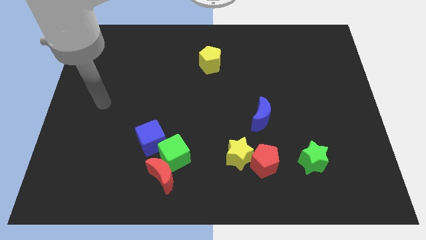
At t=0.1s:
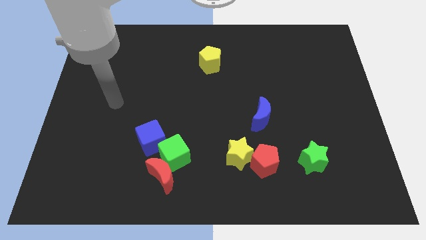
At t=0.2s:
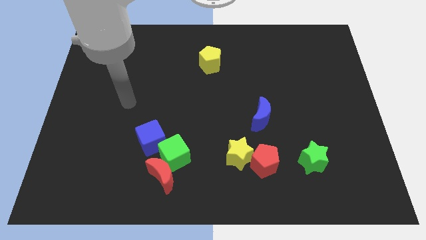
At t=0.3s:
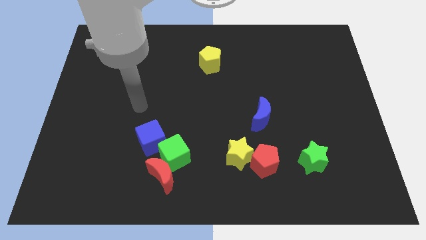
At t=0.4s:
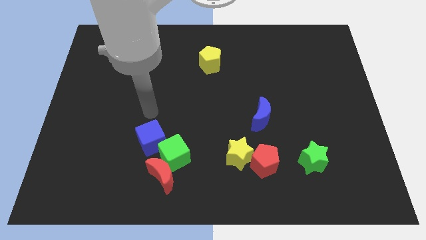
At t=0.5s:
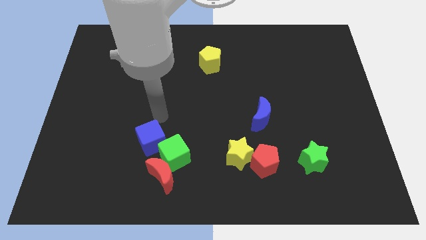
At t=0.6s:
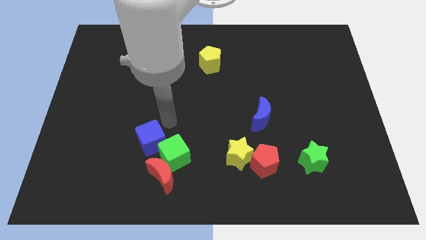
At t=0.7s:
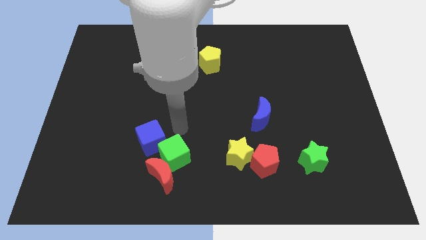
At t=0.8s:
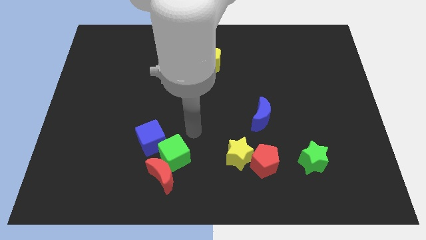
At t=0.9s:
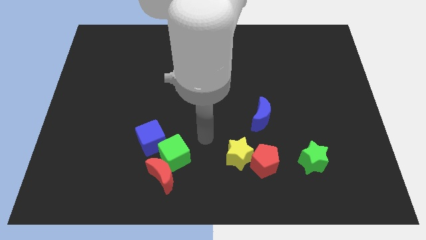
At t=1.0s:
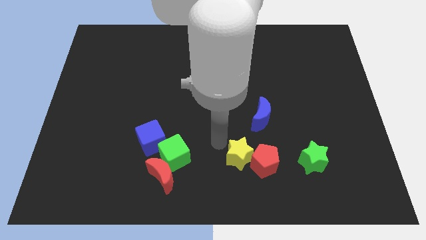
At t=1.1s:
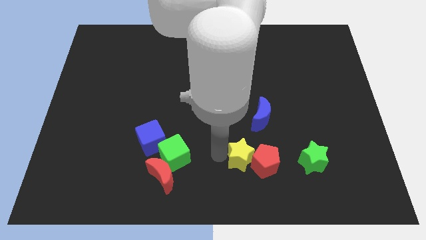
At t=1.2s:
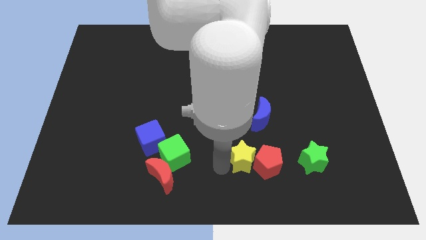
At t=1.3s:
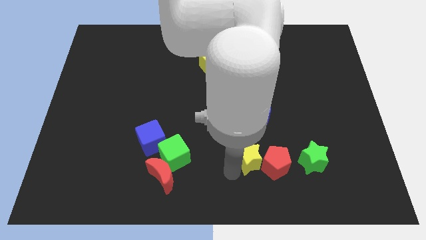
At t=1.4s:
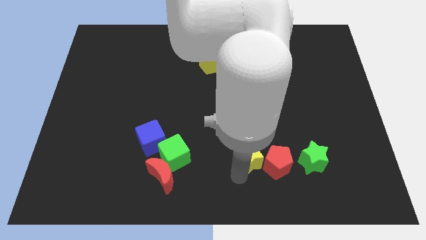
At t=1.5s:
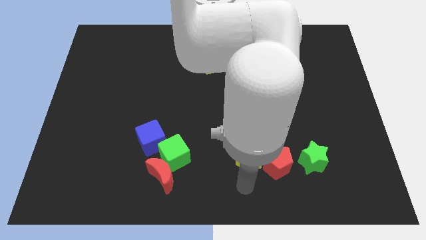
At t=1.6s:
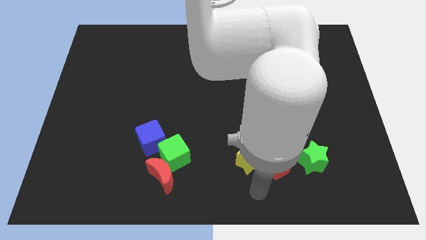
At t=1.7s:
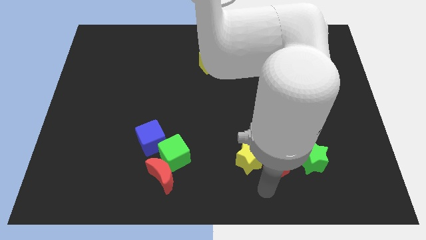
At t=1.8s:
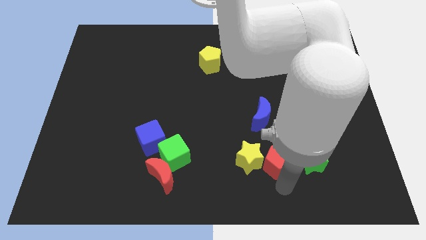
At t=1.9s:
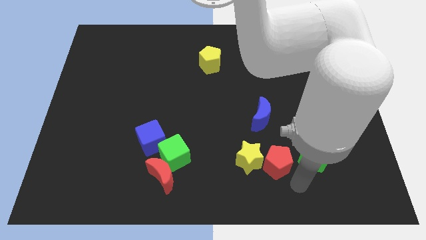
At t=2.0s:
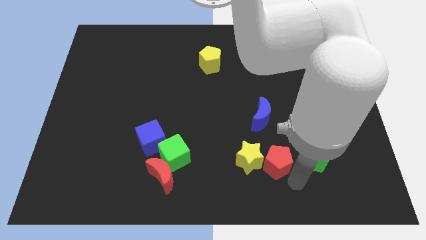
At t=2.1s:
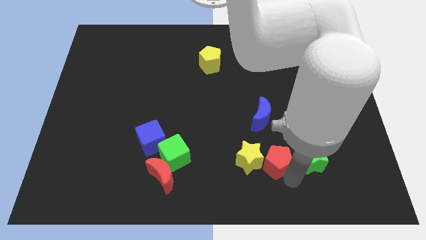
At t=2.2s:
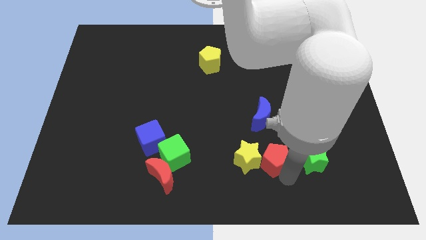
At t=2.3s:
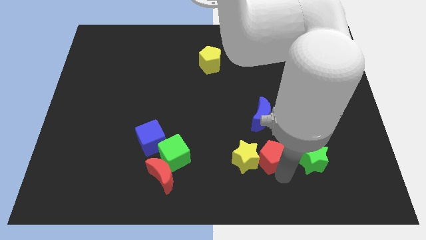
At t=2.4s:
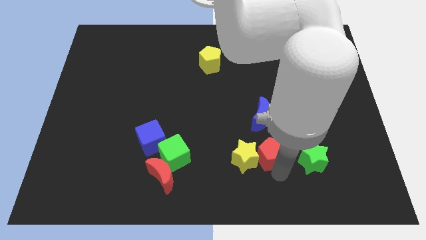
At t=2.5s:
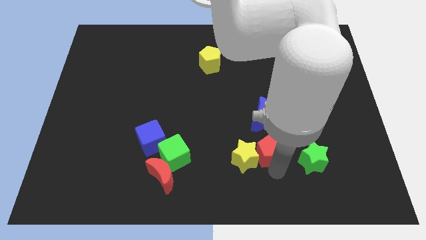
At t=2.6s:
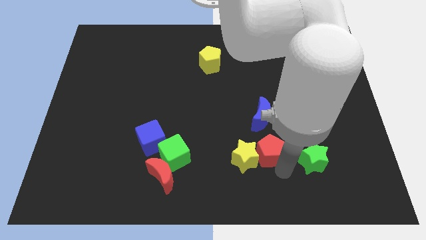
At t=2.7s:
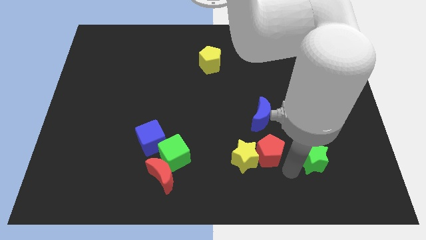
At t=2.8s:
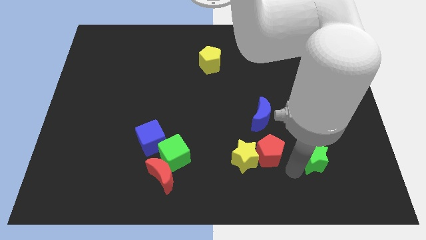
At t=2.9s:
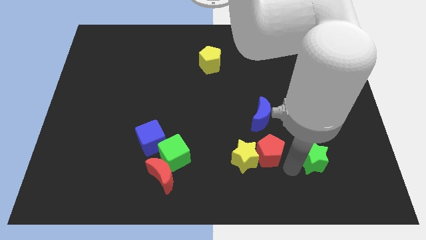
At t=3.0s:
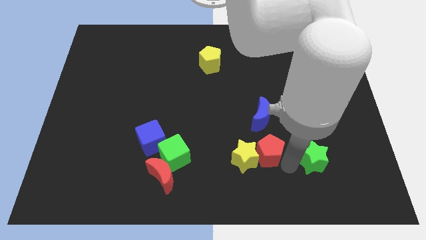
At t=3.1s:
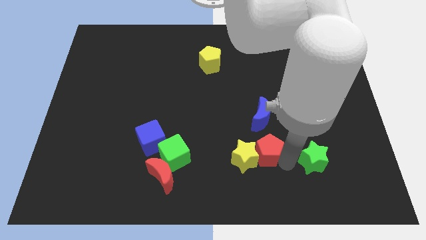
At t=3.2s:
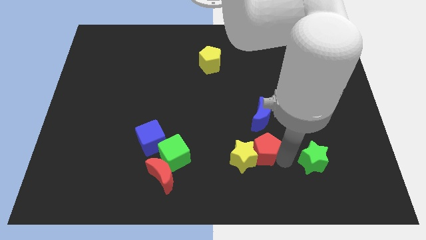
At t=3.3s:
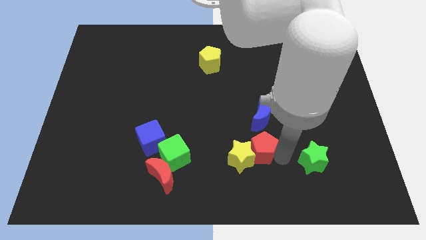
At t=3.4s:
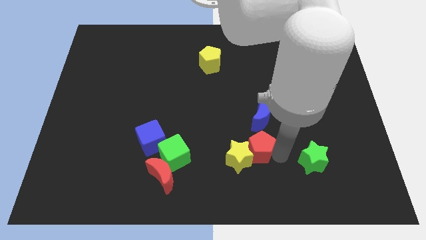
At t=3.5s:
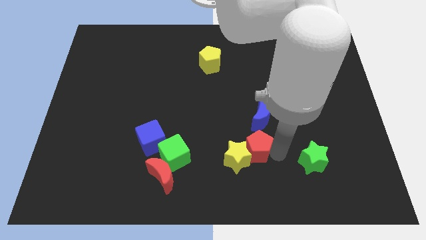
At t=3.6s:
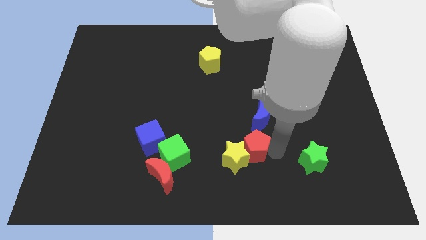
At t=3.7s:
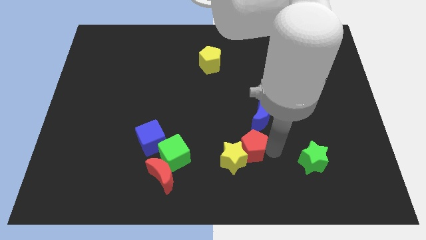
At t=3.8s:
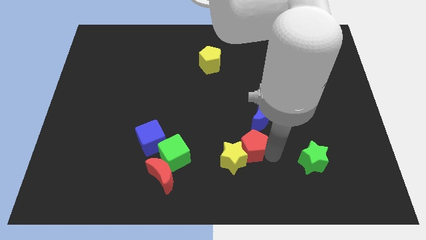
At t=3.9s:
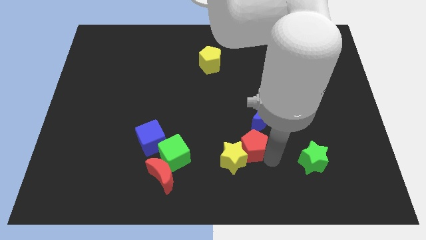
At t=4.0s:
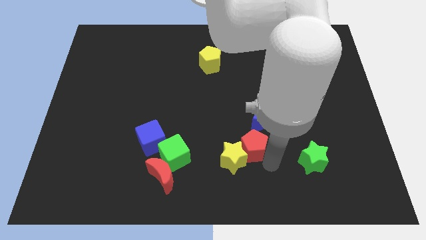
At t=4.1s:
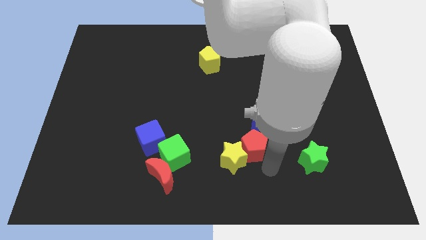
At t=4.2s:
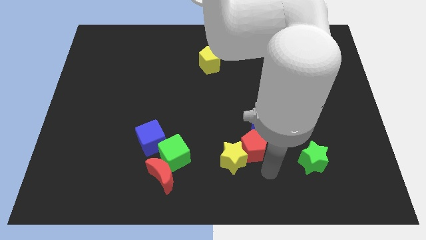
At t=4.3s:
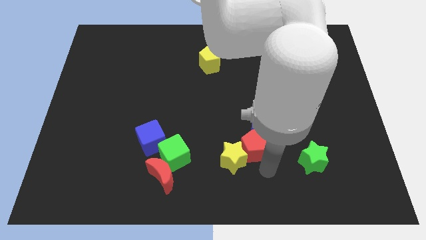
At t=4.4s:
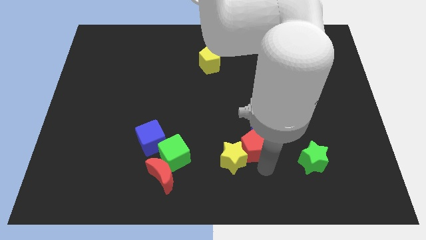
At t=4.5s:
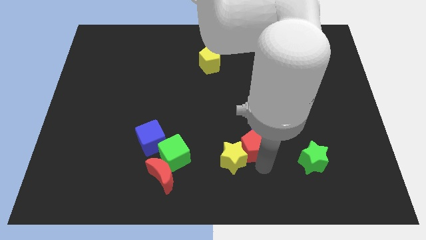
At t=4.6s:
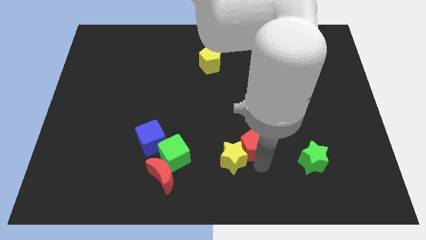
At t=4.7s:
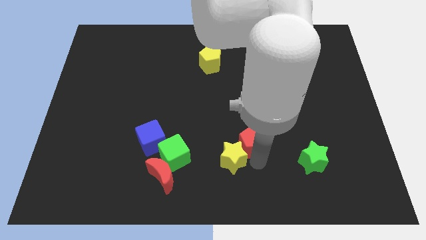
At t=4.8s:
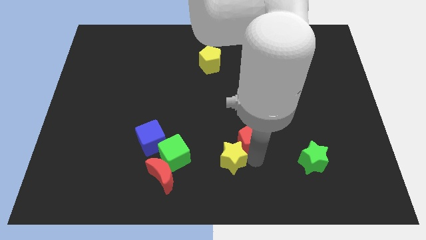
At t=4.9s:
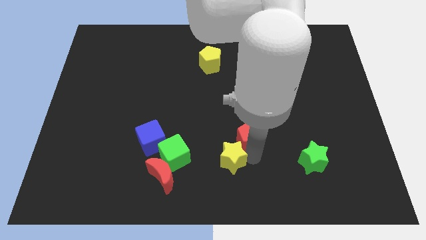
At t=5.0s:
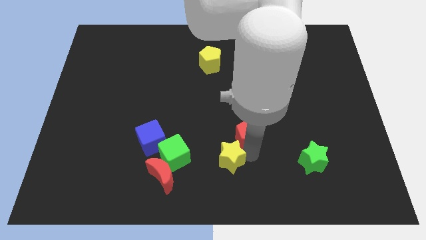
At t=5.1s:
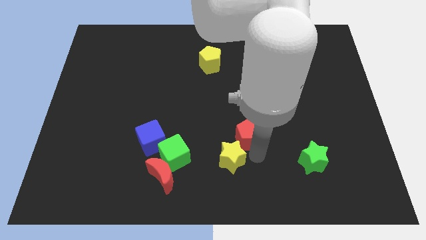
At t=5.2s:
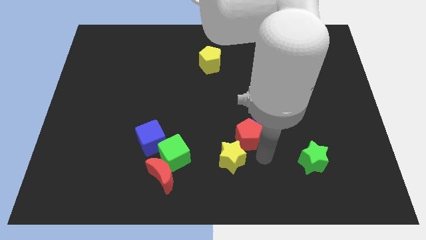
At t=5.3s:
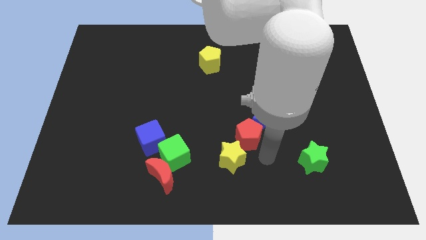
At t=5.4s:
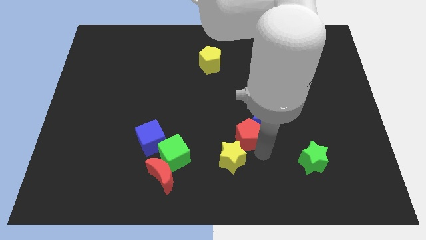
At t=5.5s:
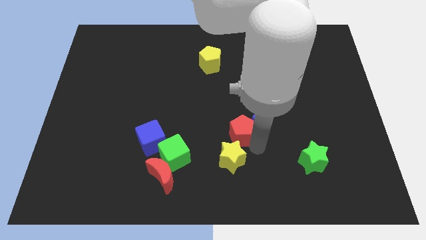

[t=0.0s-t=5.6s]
move the red pentagon to the middle

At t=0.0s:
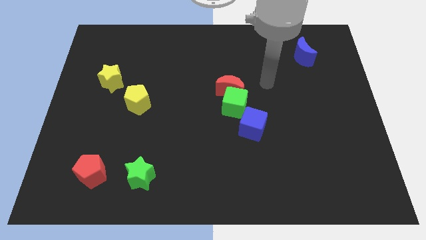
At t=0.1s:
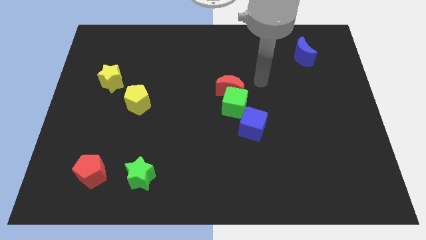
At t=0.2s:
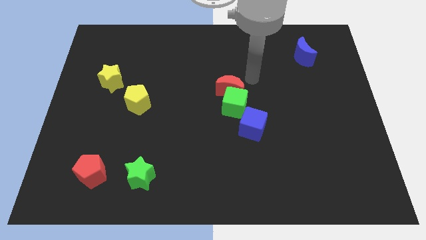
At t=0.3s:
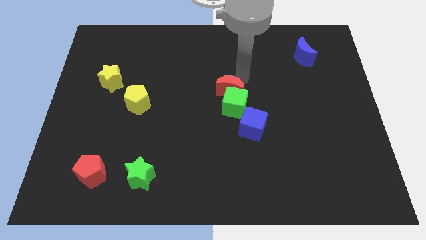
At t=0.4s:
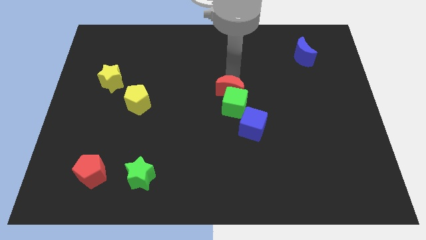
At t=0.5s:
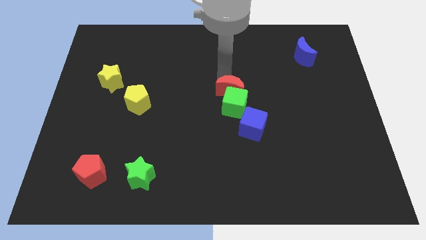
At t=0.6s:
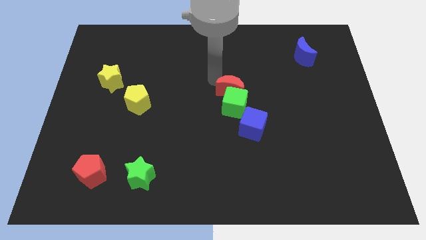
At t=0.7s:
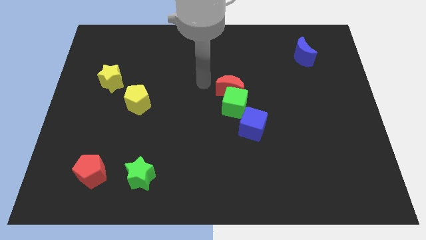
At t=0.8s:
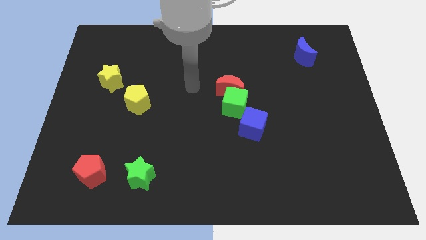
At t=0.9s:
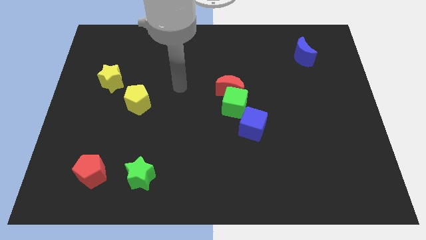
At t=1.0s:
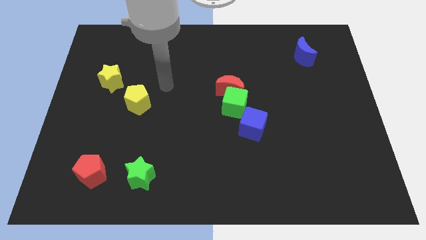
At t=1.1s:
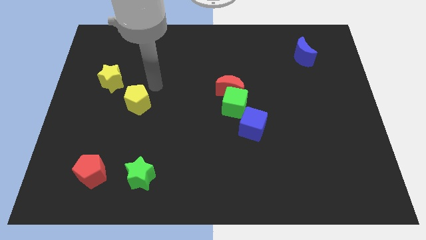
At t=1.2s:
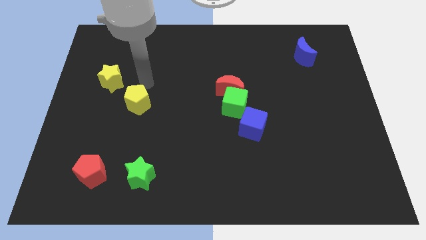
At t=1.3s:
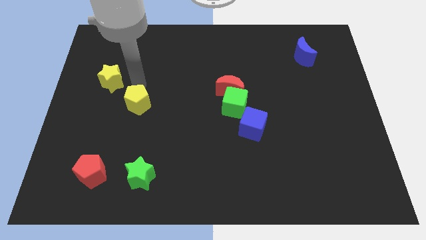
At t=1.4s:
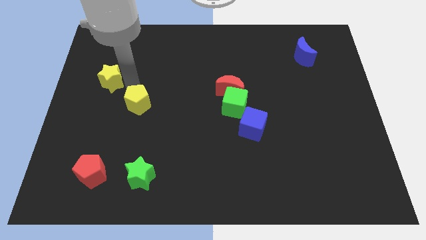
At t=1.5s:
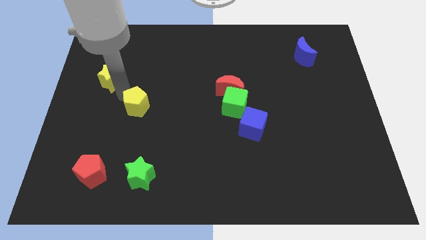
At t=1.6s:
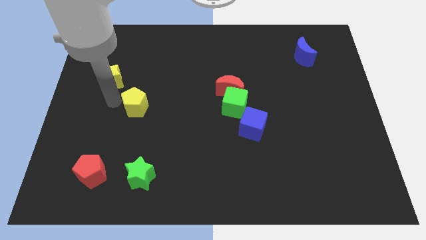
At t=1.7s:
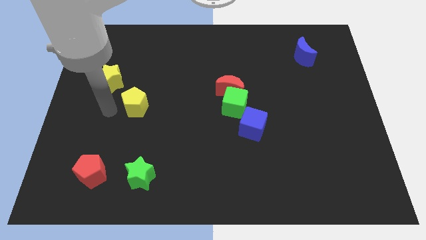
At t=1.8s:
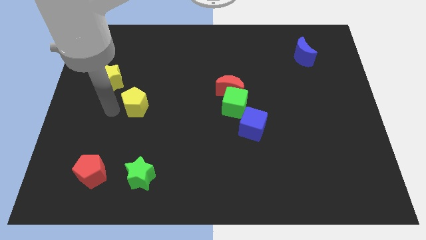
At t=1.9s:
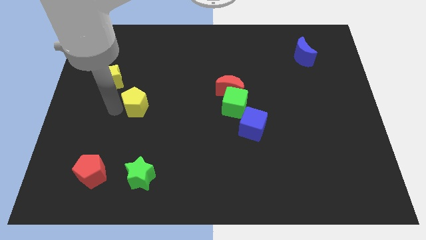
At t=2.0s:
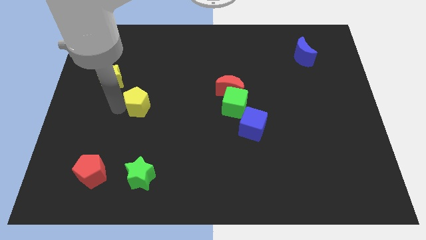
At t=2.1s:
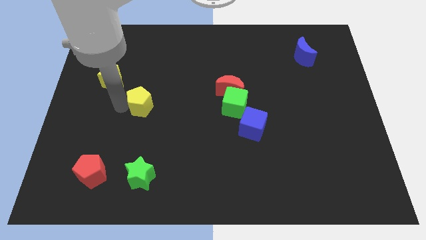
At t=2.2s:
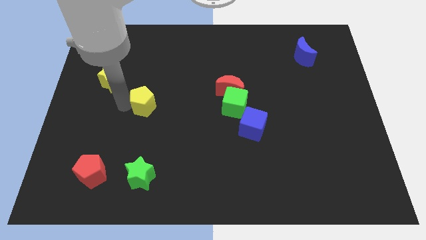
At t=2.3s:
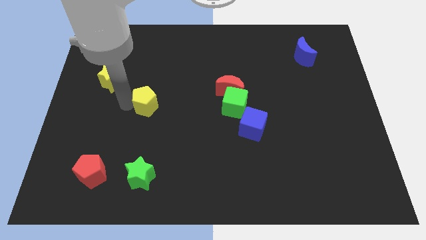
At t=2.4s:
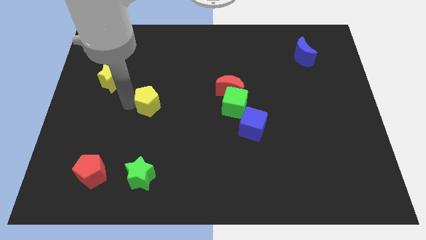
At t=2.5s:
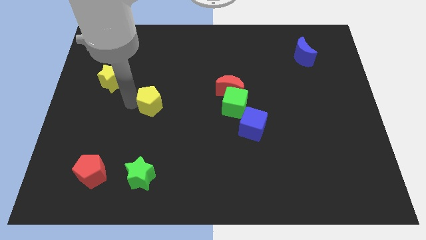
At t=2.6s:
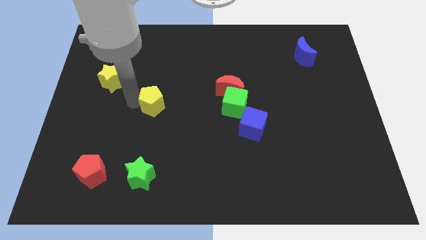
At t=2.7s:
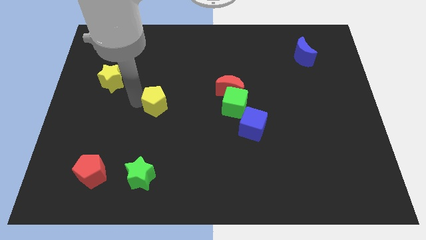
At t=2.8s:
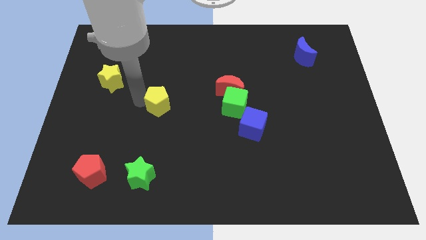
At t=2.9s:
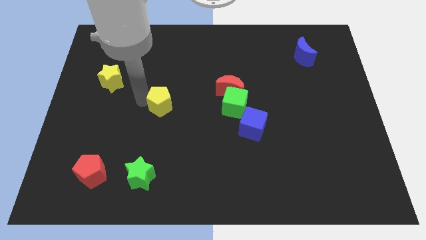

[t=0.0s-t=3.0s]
push the yellow pentagon to the middle
